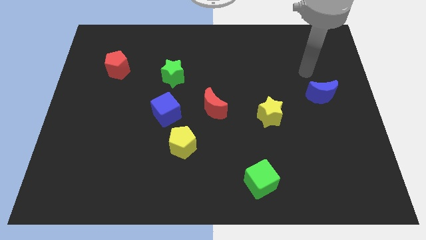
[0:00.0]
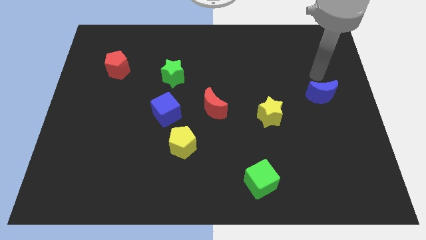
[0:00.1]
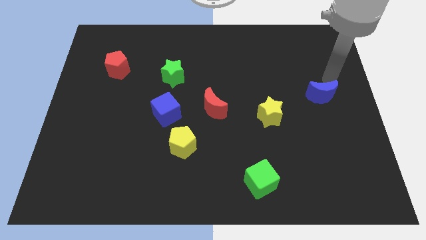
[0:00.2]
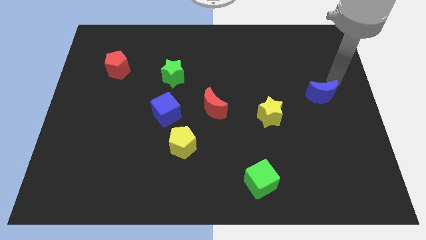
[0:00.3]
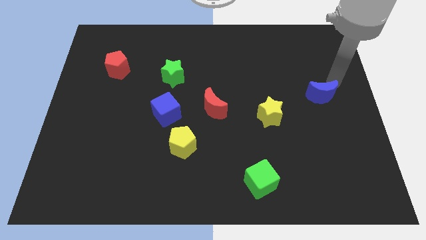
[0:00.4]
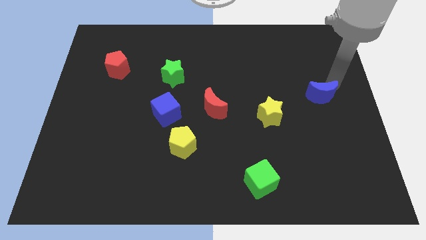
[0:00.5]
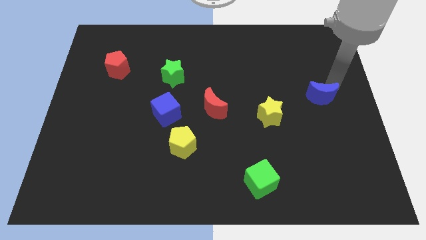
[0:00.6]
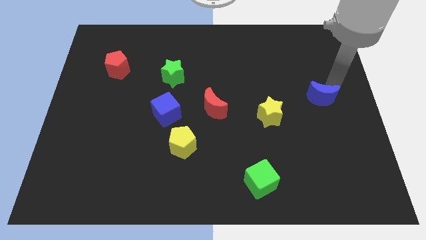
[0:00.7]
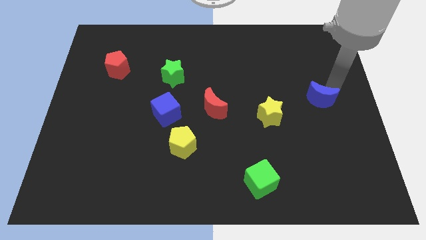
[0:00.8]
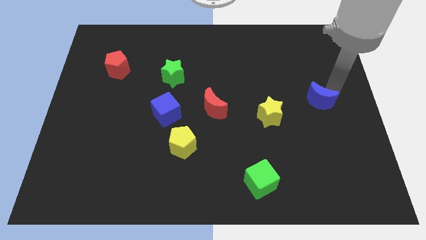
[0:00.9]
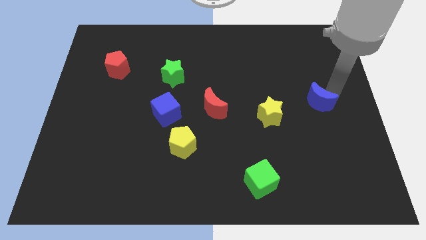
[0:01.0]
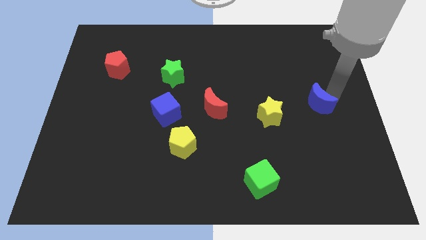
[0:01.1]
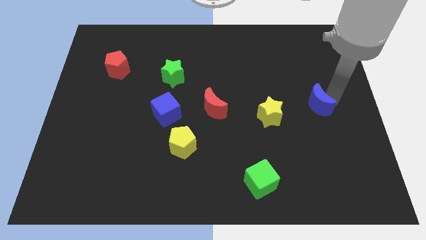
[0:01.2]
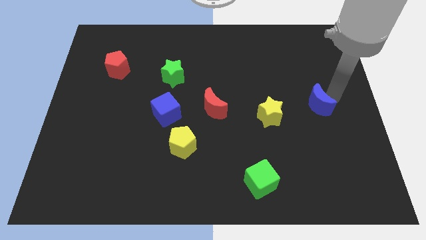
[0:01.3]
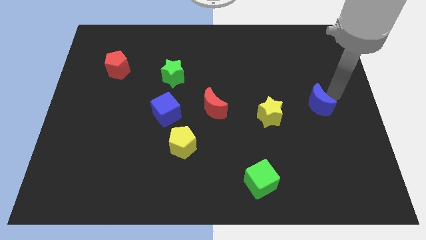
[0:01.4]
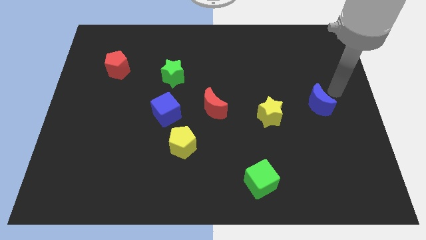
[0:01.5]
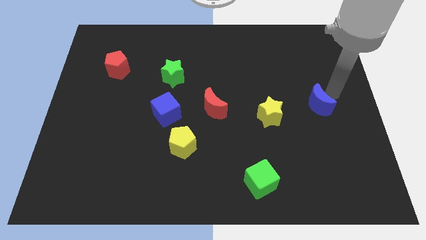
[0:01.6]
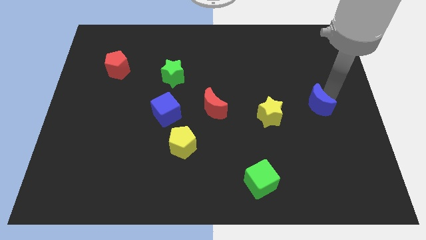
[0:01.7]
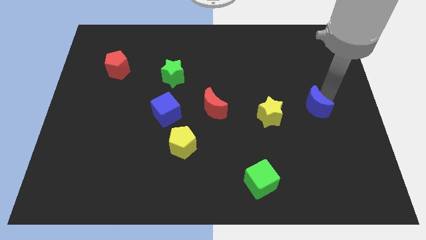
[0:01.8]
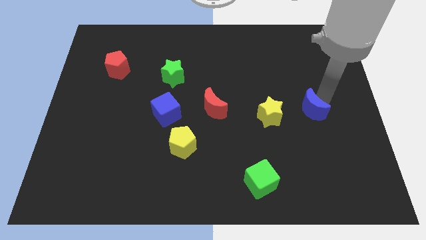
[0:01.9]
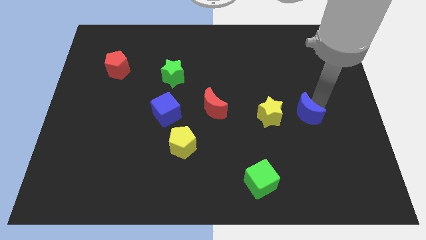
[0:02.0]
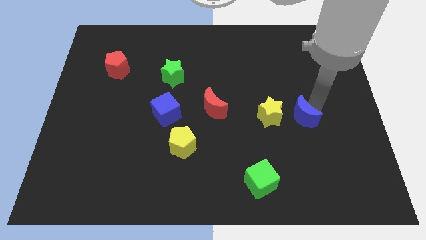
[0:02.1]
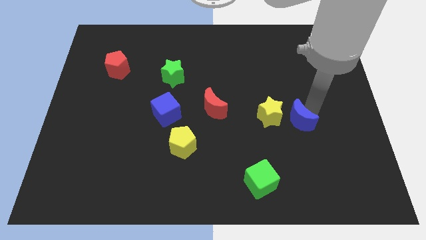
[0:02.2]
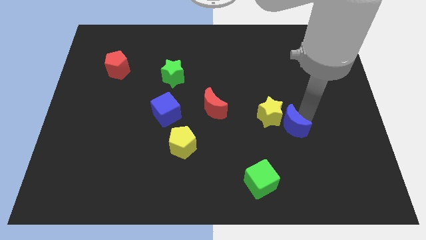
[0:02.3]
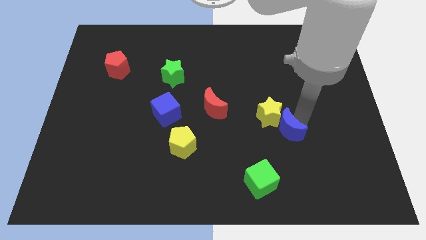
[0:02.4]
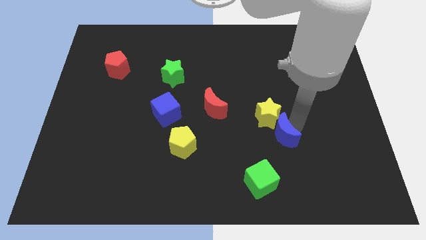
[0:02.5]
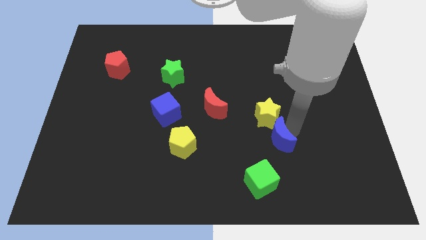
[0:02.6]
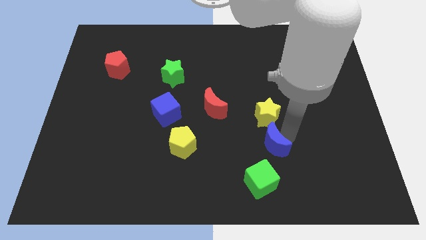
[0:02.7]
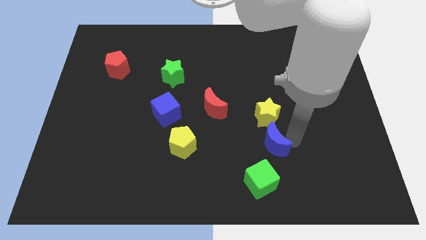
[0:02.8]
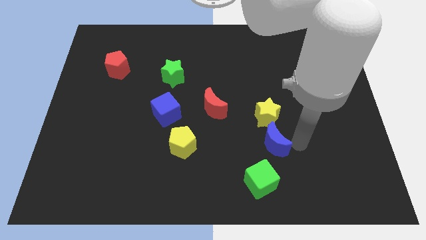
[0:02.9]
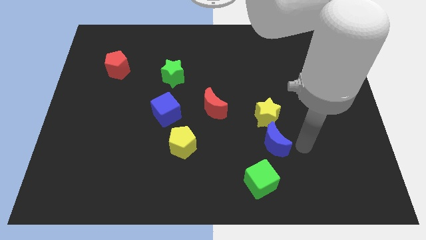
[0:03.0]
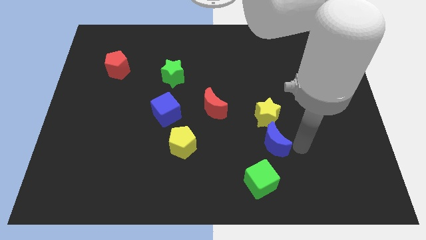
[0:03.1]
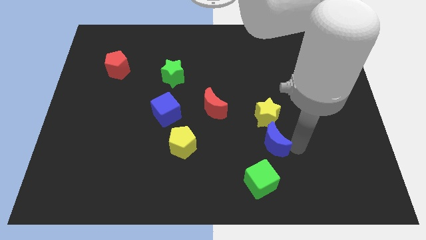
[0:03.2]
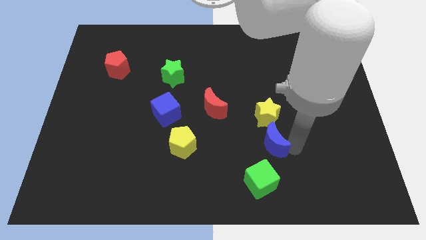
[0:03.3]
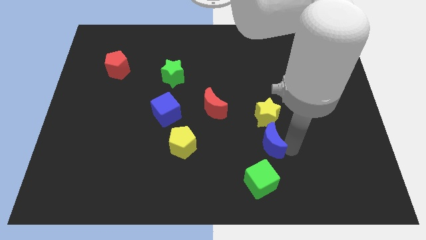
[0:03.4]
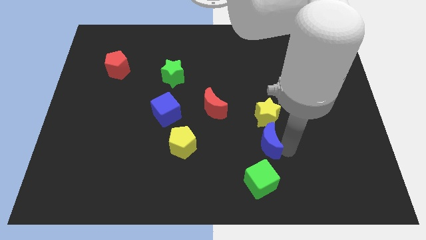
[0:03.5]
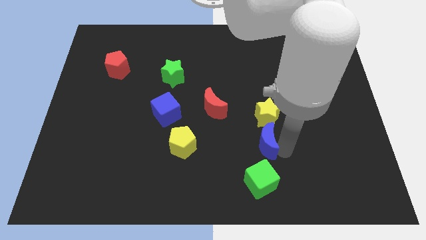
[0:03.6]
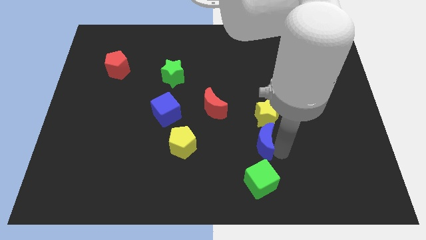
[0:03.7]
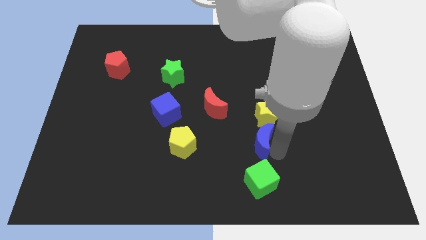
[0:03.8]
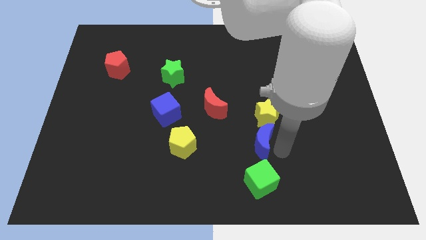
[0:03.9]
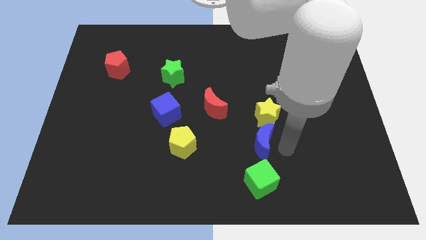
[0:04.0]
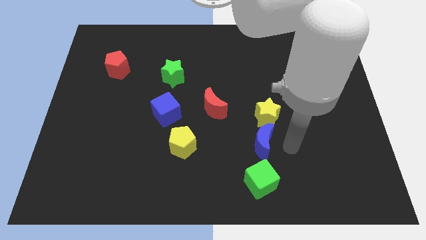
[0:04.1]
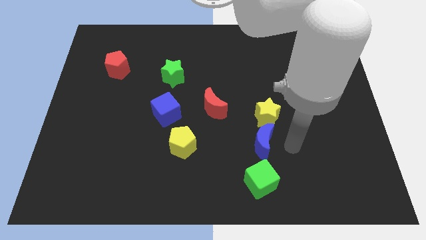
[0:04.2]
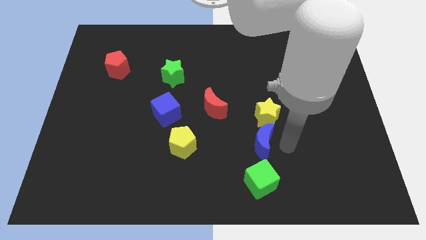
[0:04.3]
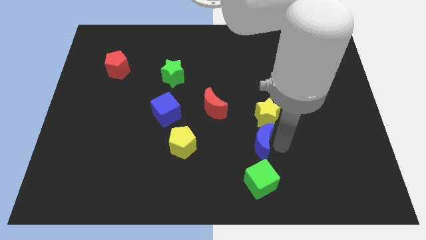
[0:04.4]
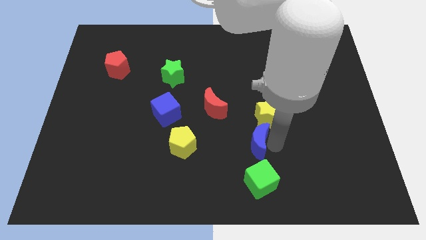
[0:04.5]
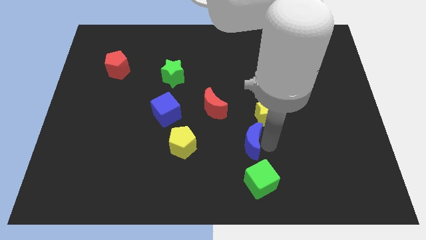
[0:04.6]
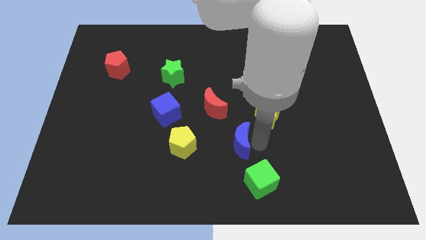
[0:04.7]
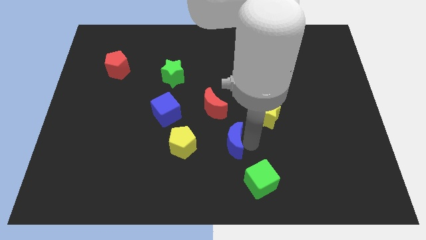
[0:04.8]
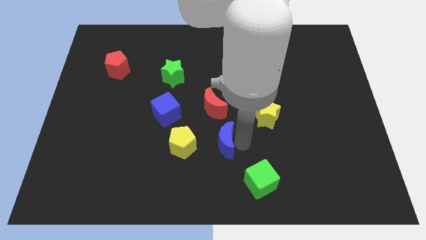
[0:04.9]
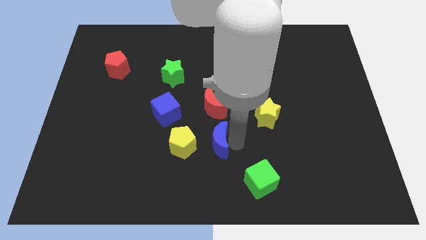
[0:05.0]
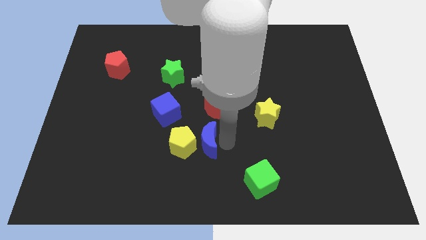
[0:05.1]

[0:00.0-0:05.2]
move the blue moon towards the yellow pentagon

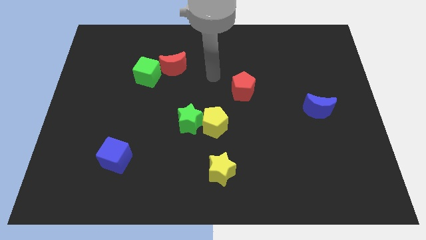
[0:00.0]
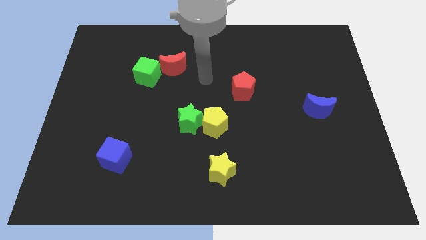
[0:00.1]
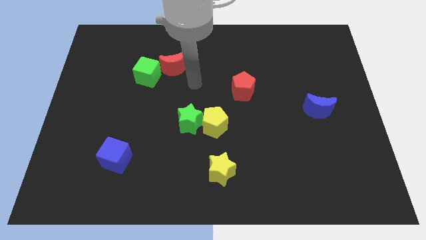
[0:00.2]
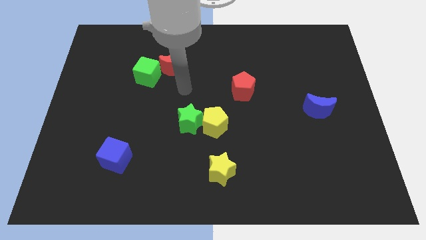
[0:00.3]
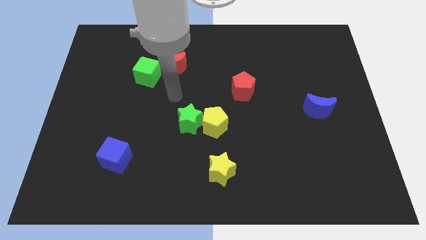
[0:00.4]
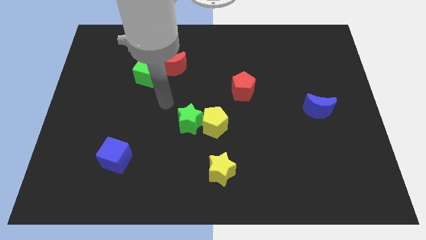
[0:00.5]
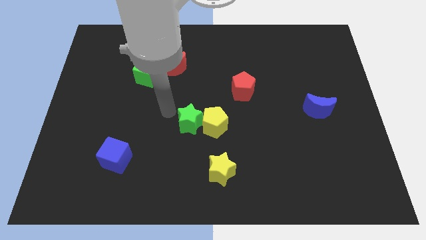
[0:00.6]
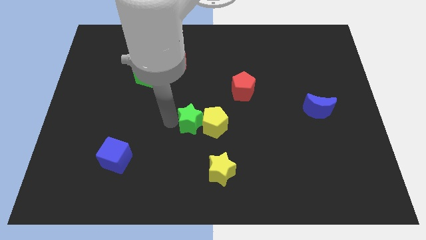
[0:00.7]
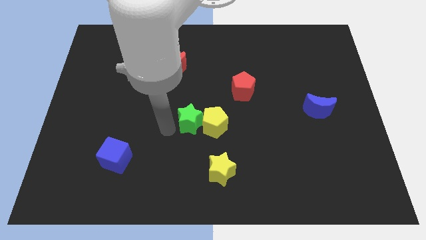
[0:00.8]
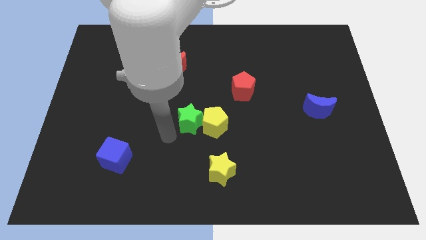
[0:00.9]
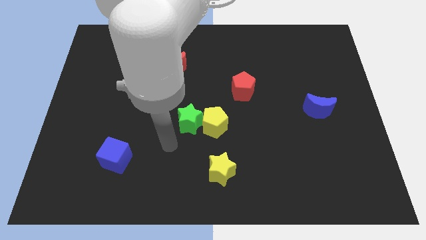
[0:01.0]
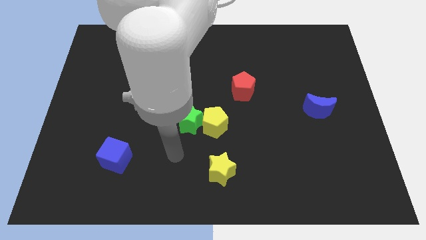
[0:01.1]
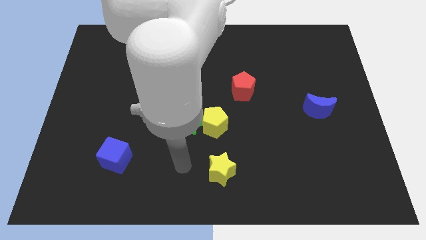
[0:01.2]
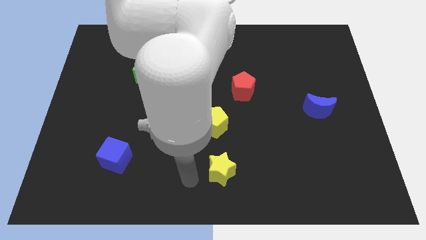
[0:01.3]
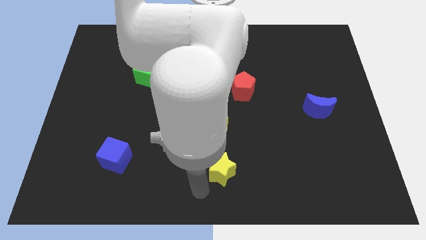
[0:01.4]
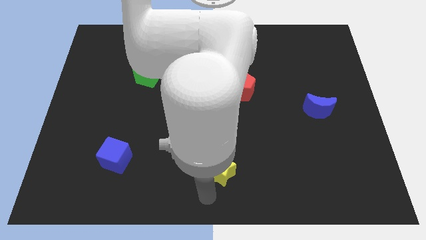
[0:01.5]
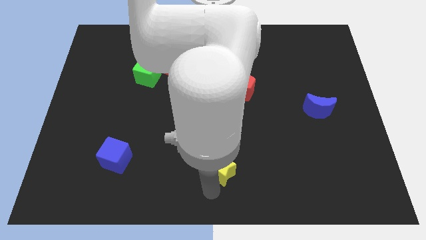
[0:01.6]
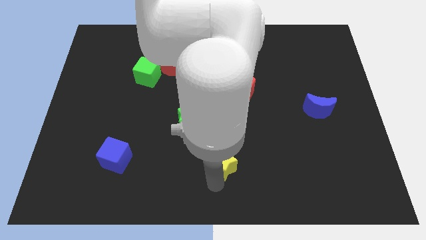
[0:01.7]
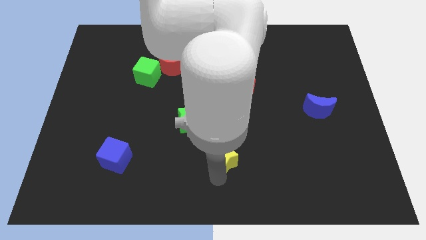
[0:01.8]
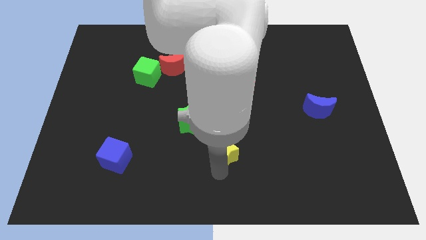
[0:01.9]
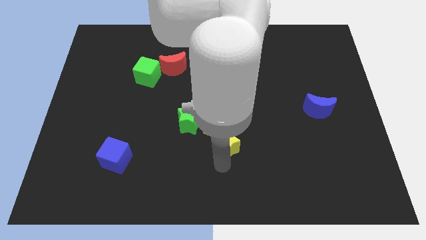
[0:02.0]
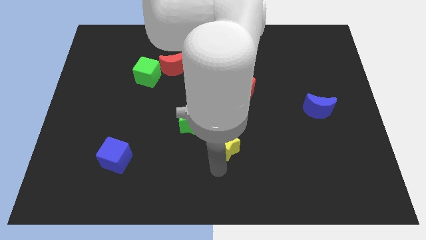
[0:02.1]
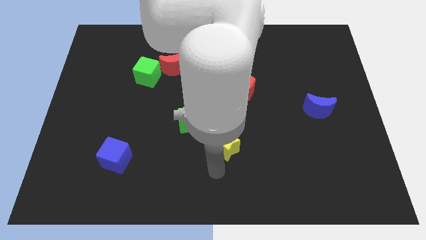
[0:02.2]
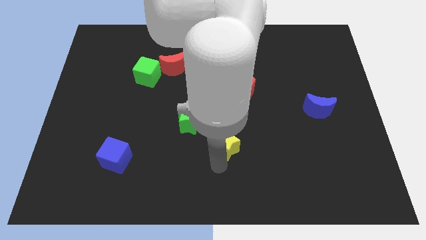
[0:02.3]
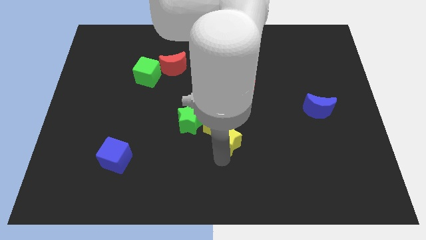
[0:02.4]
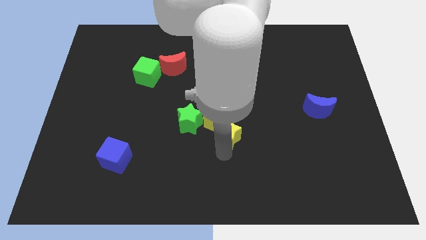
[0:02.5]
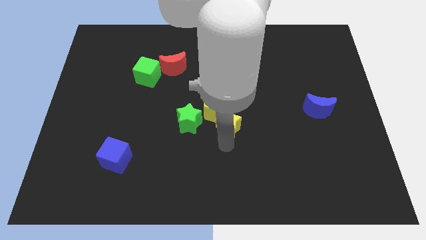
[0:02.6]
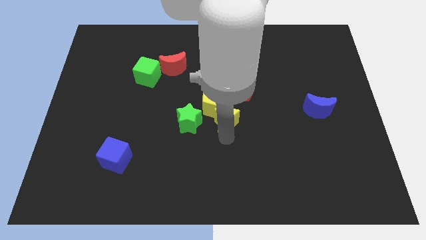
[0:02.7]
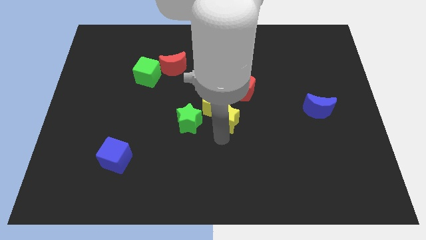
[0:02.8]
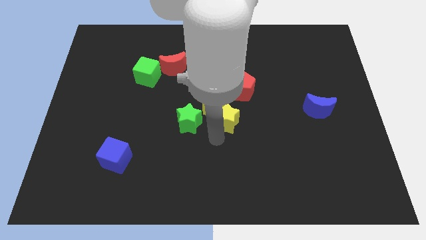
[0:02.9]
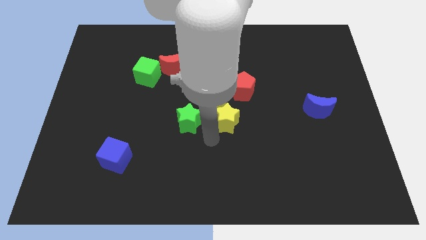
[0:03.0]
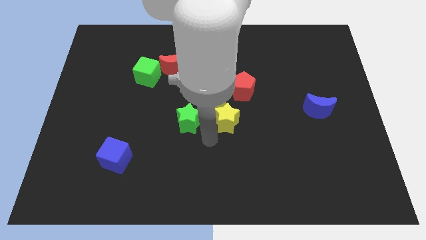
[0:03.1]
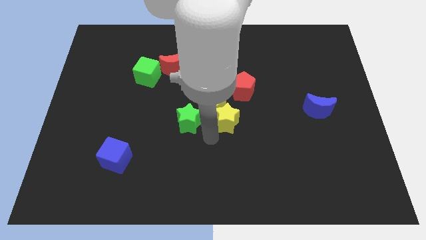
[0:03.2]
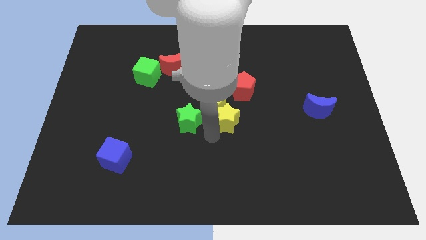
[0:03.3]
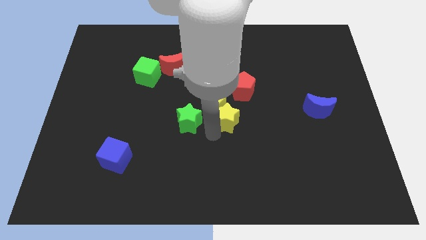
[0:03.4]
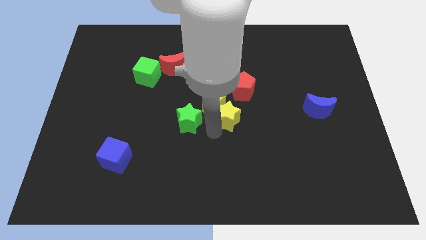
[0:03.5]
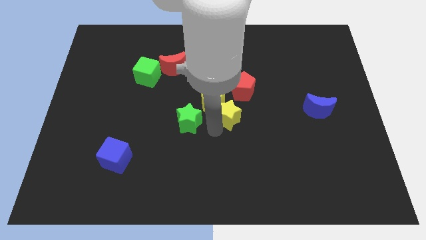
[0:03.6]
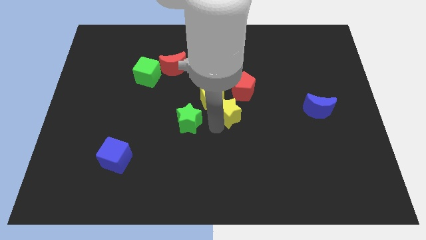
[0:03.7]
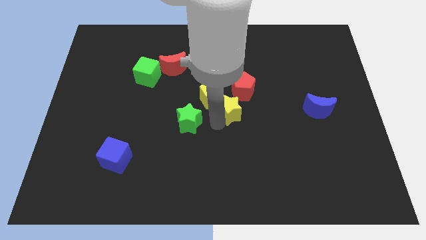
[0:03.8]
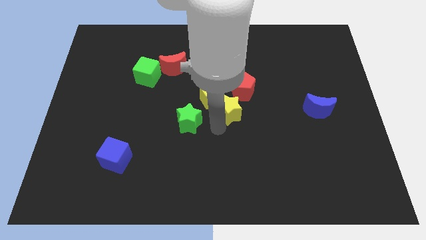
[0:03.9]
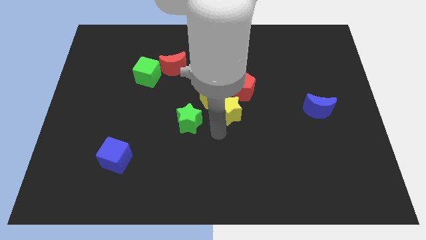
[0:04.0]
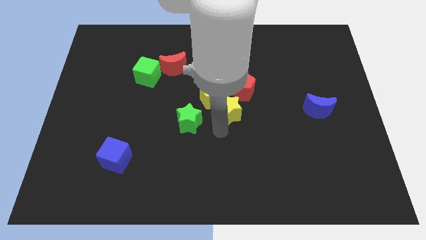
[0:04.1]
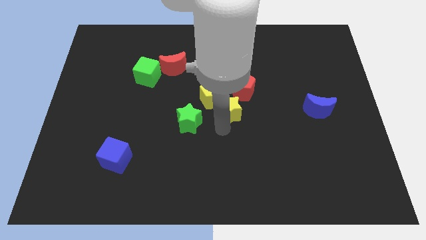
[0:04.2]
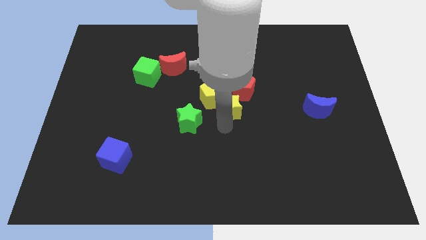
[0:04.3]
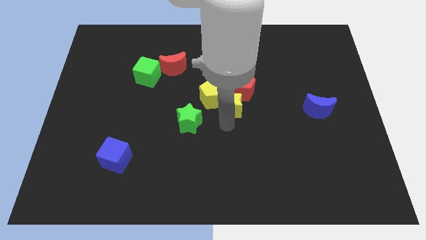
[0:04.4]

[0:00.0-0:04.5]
push the yellow star close to the red pentagon
